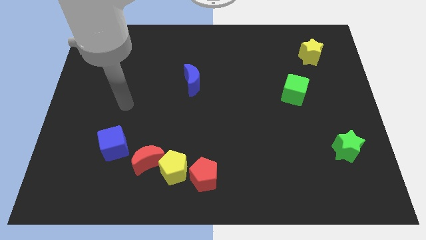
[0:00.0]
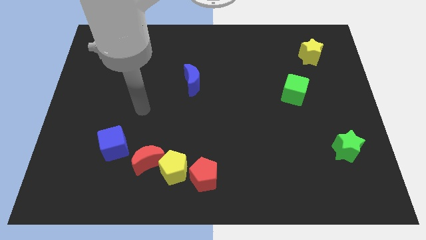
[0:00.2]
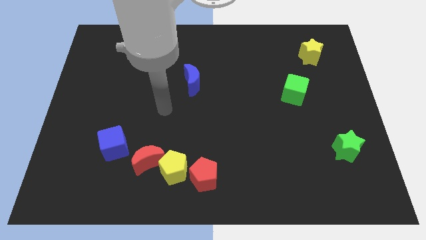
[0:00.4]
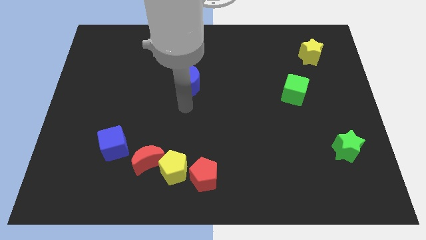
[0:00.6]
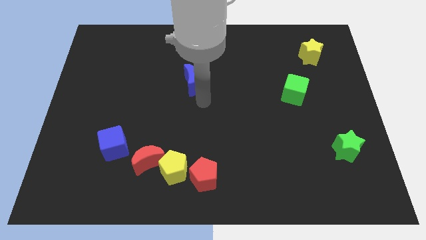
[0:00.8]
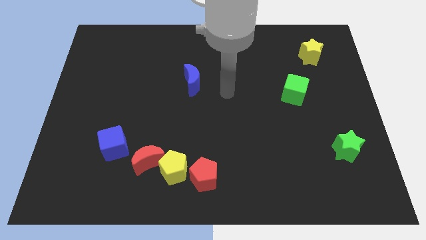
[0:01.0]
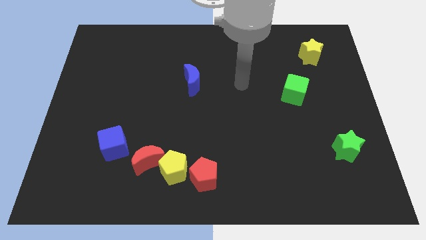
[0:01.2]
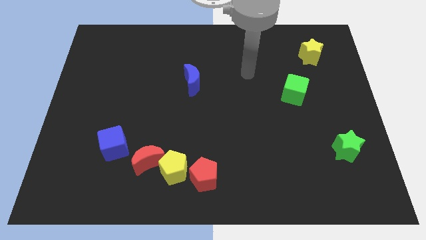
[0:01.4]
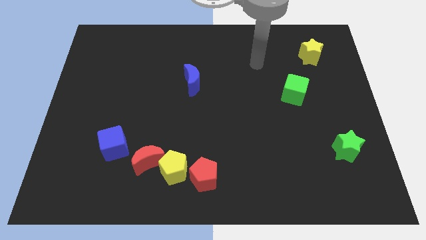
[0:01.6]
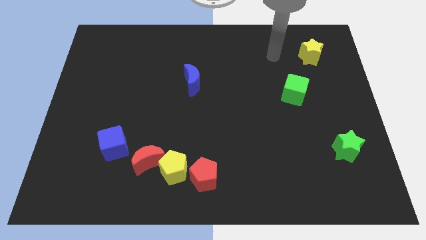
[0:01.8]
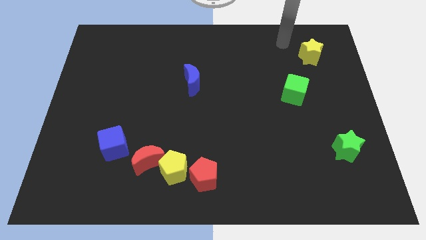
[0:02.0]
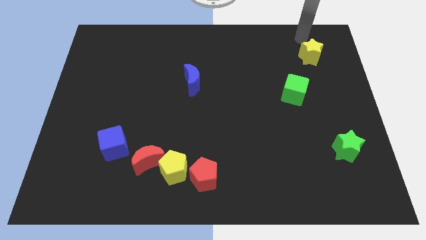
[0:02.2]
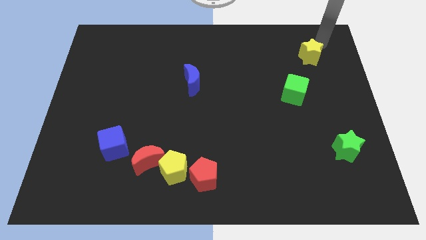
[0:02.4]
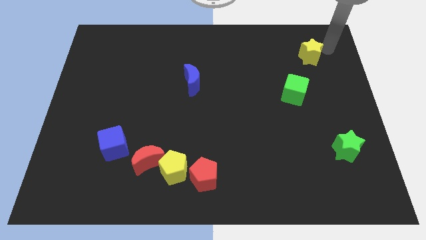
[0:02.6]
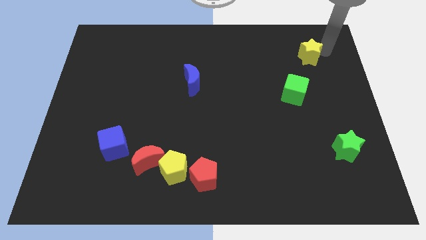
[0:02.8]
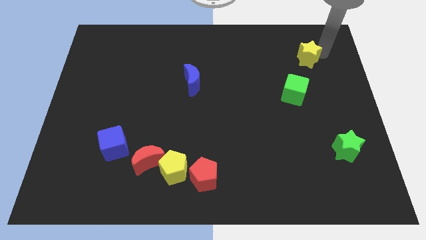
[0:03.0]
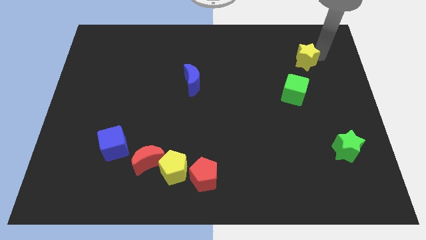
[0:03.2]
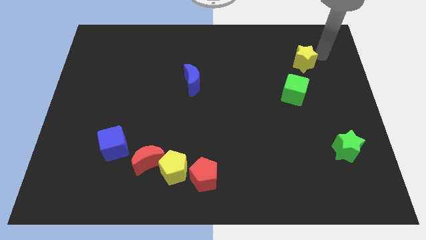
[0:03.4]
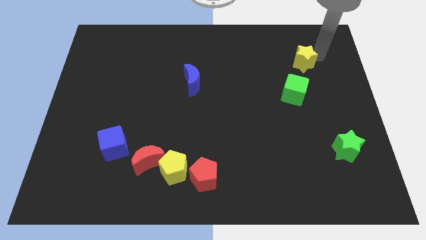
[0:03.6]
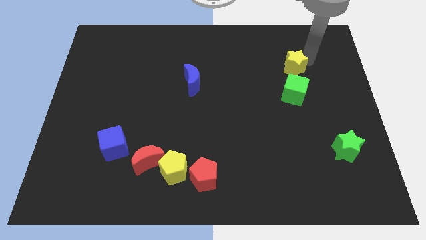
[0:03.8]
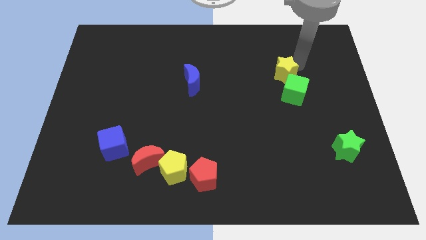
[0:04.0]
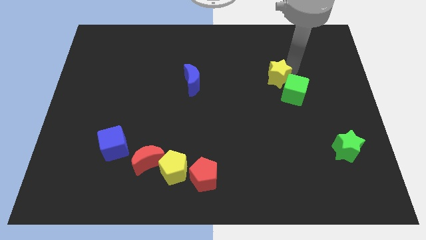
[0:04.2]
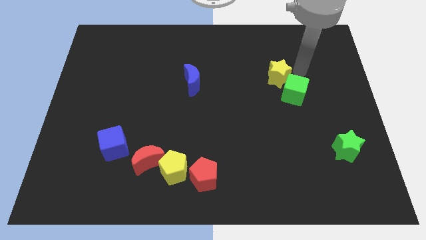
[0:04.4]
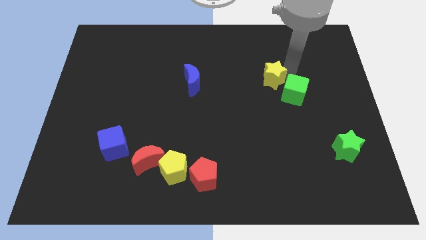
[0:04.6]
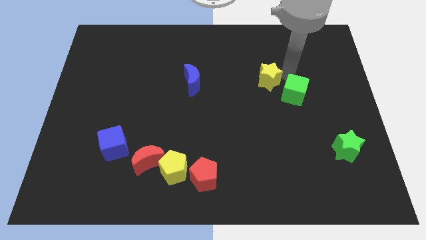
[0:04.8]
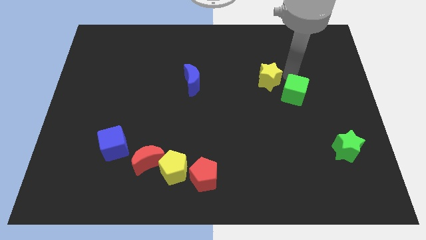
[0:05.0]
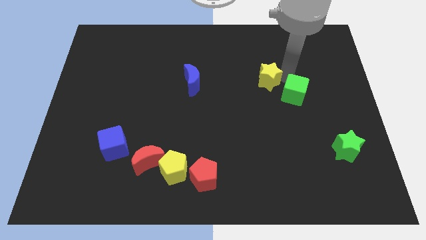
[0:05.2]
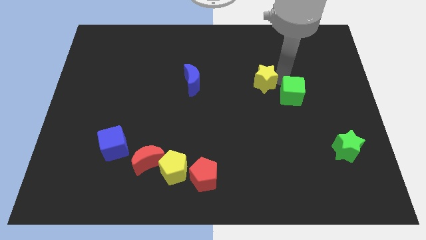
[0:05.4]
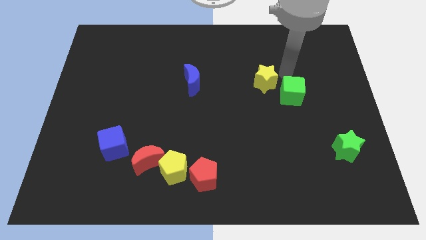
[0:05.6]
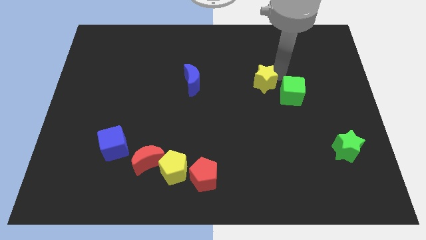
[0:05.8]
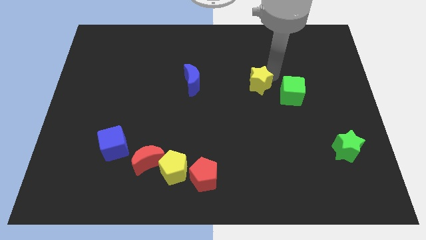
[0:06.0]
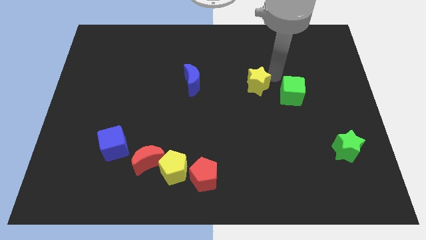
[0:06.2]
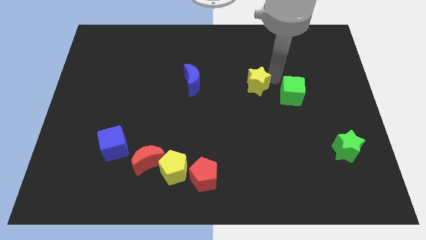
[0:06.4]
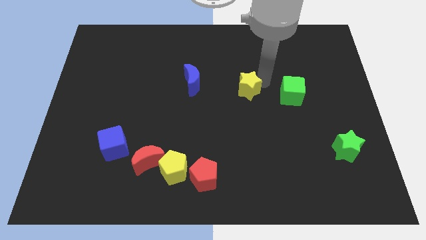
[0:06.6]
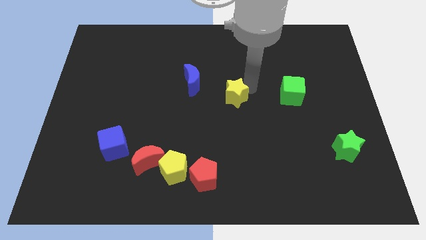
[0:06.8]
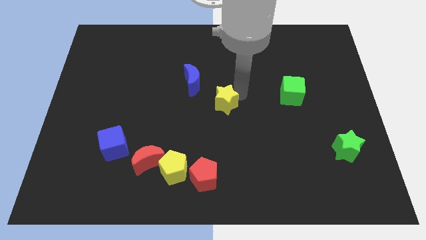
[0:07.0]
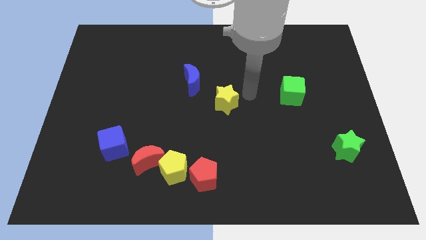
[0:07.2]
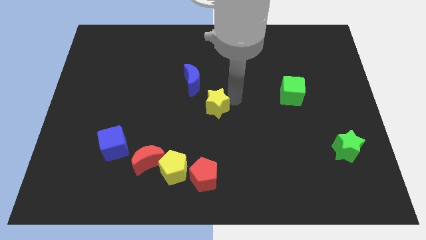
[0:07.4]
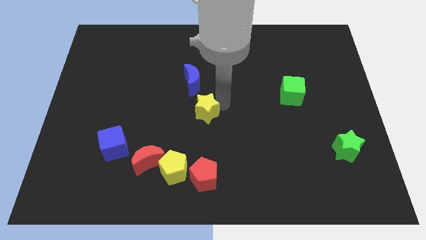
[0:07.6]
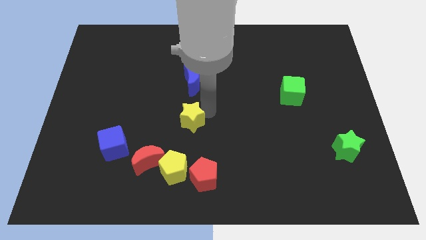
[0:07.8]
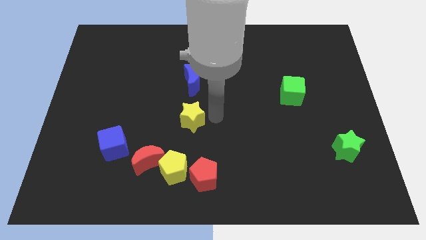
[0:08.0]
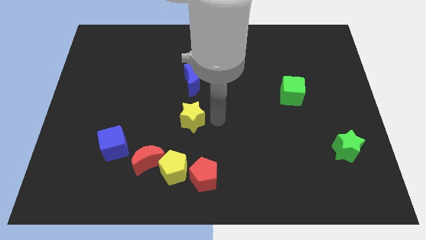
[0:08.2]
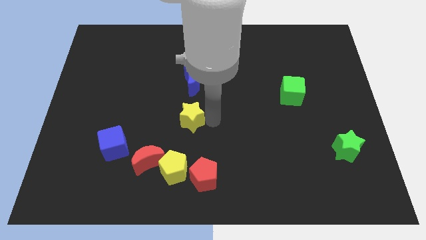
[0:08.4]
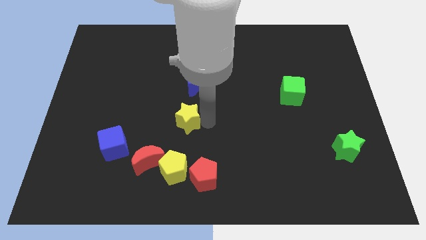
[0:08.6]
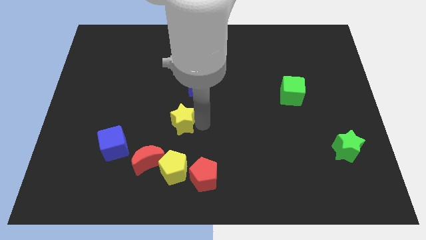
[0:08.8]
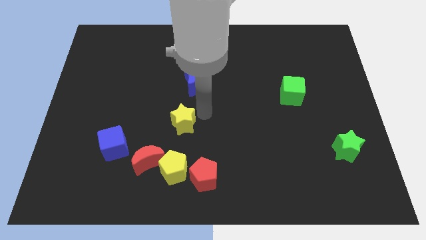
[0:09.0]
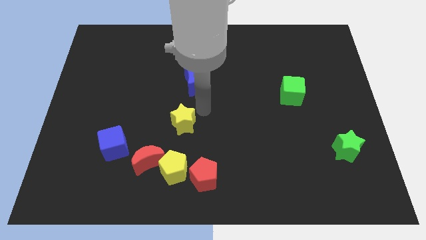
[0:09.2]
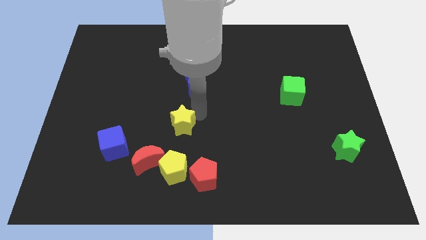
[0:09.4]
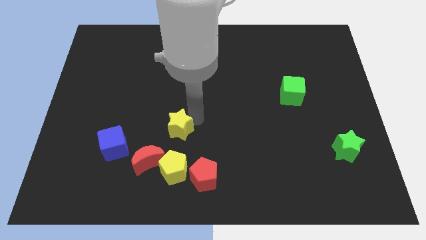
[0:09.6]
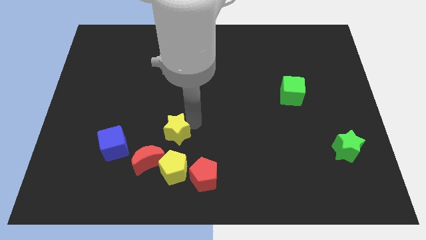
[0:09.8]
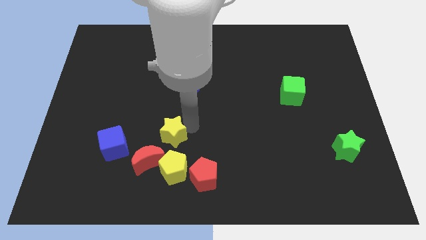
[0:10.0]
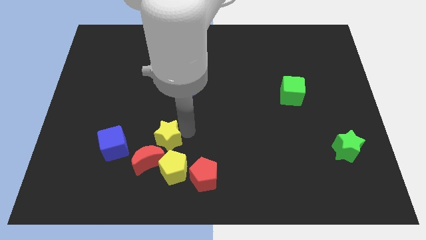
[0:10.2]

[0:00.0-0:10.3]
put the yellow star to the top left of the yellow pentagon

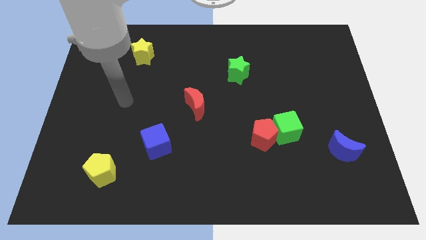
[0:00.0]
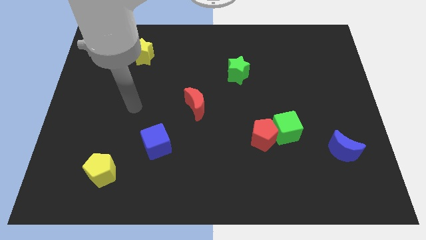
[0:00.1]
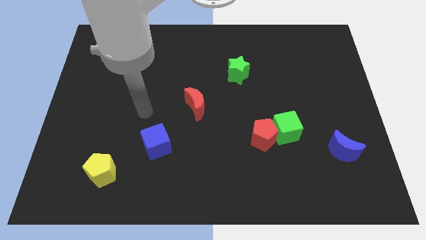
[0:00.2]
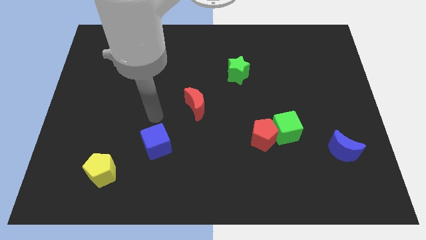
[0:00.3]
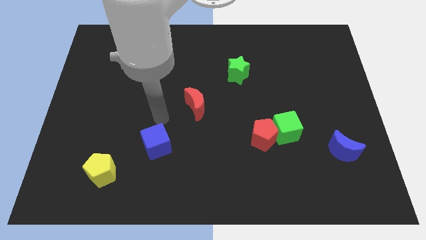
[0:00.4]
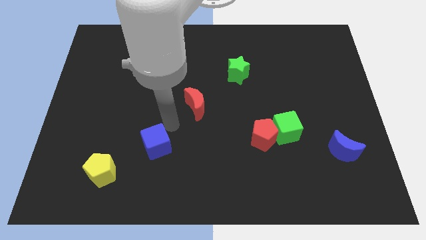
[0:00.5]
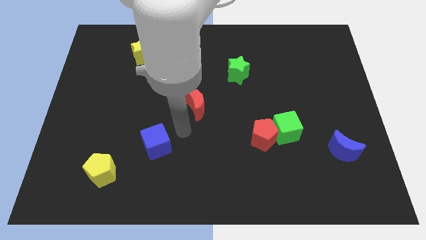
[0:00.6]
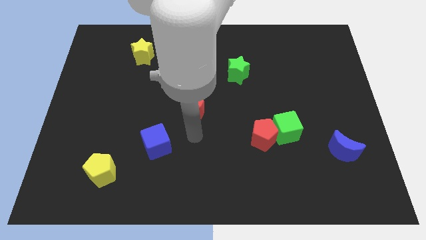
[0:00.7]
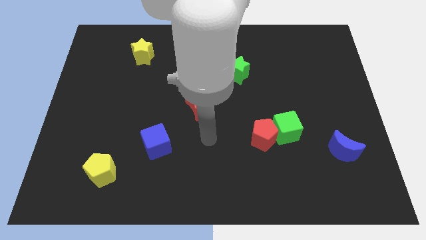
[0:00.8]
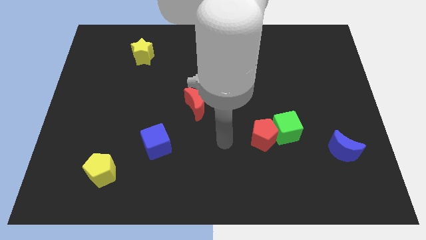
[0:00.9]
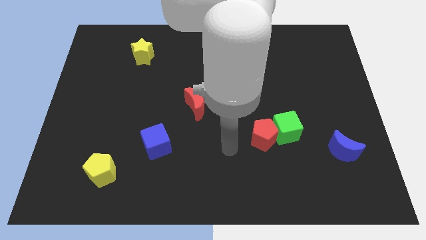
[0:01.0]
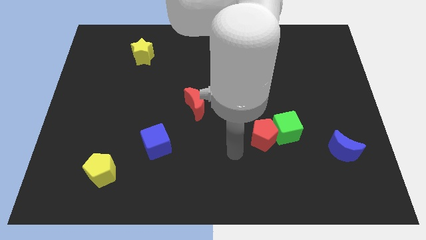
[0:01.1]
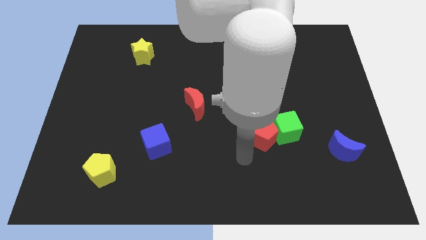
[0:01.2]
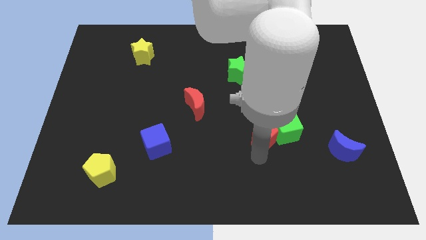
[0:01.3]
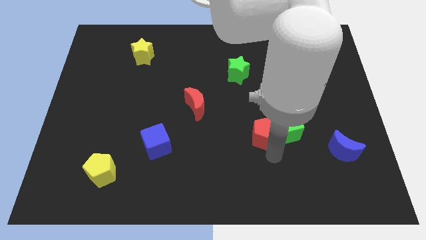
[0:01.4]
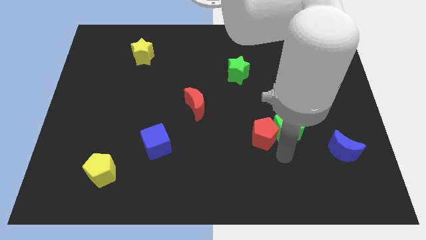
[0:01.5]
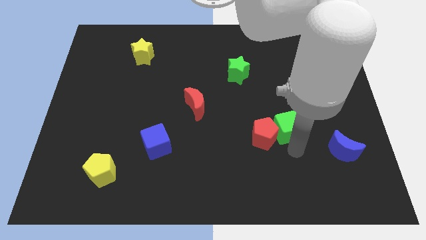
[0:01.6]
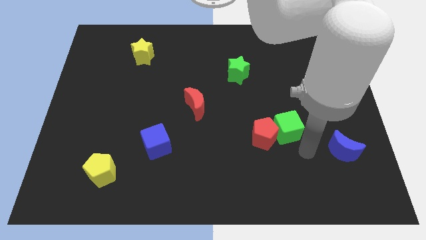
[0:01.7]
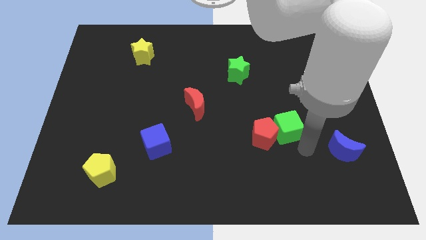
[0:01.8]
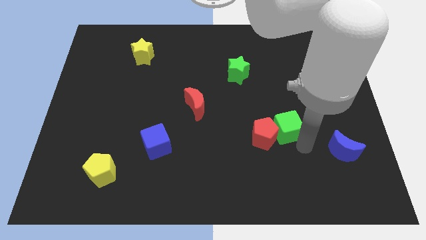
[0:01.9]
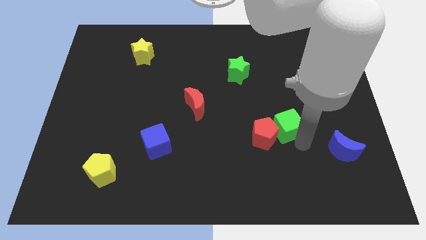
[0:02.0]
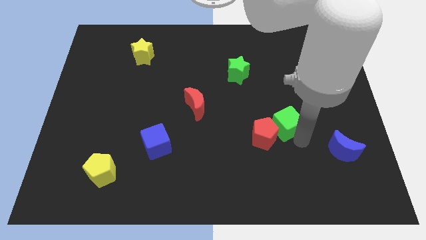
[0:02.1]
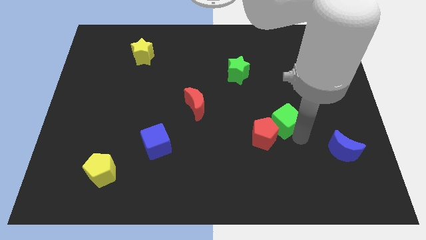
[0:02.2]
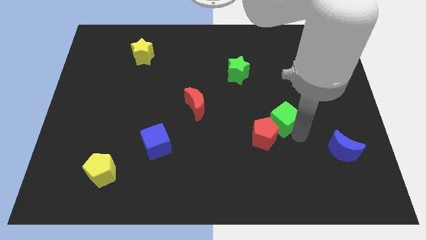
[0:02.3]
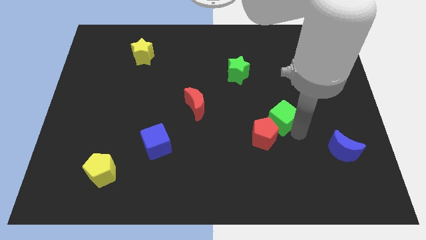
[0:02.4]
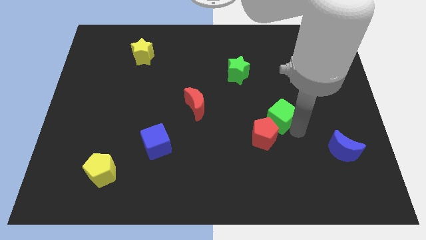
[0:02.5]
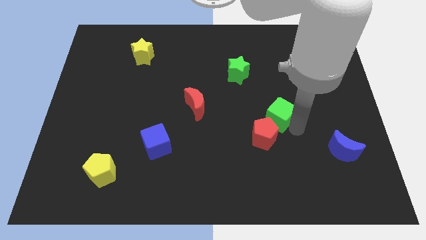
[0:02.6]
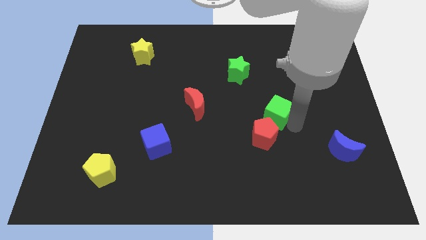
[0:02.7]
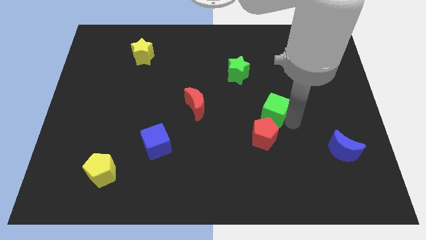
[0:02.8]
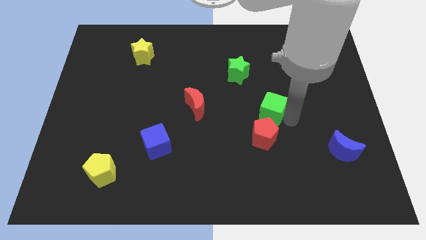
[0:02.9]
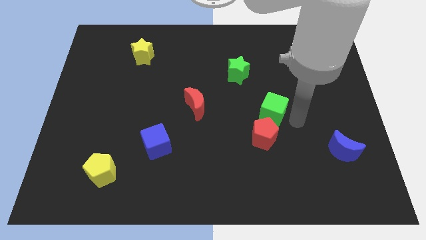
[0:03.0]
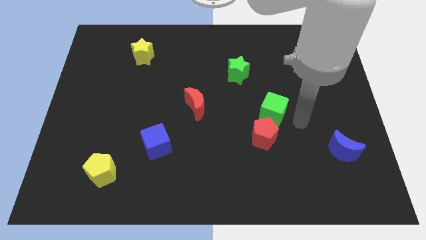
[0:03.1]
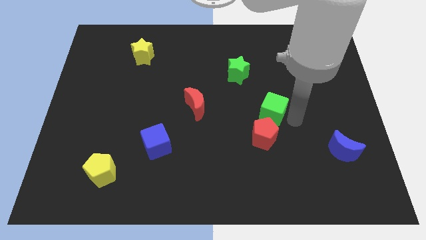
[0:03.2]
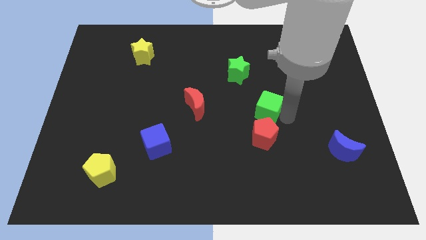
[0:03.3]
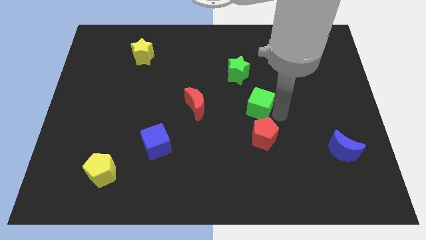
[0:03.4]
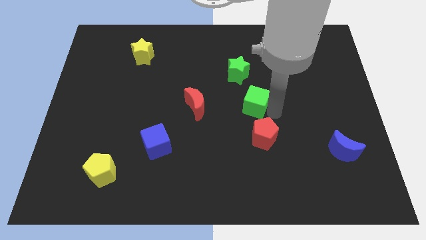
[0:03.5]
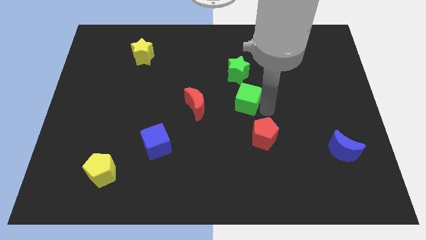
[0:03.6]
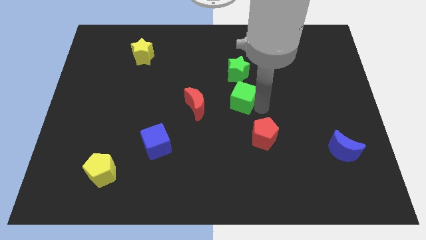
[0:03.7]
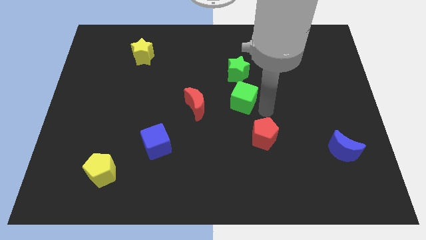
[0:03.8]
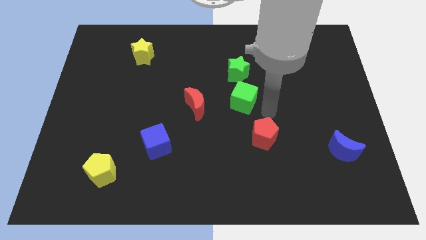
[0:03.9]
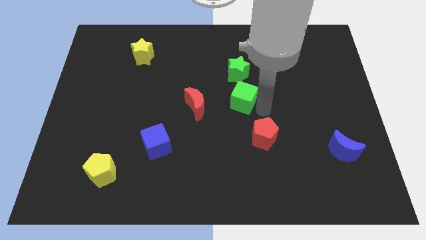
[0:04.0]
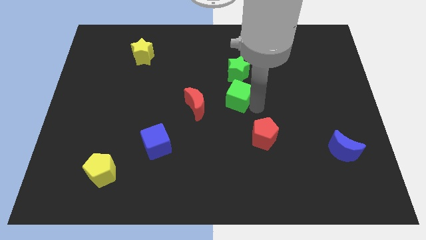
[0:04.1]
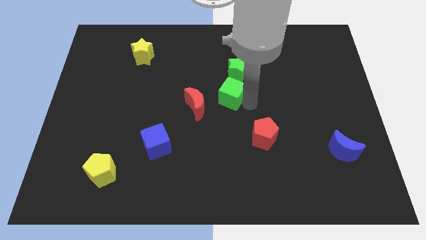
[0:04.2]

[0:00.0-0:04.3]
put the green cube to the top right side of the red moon
